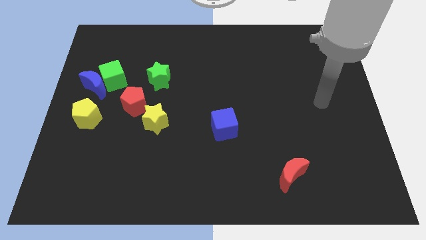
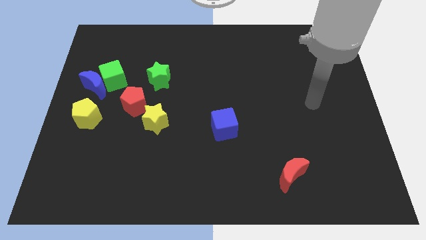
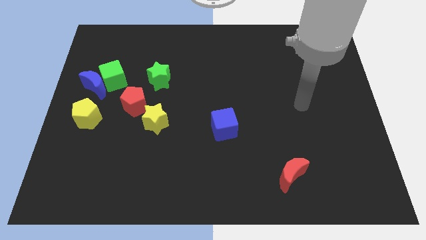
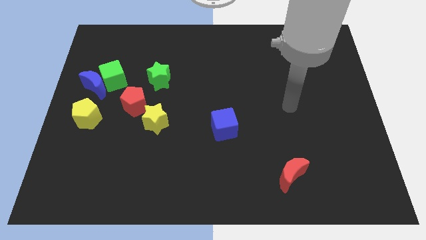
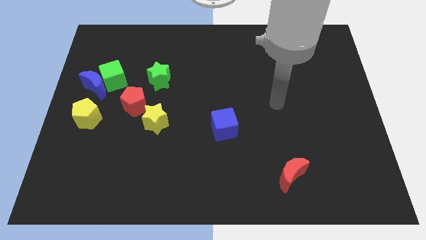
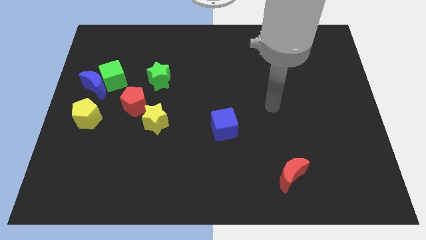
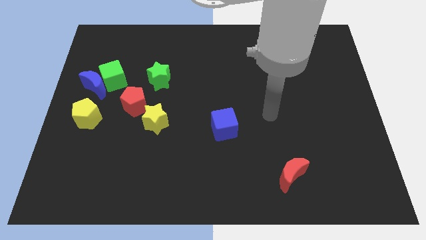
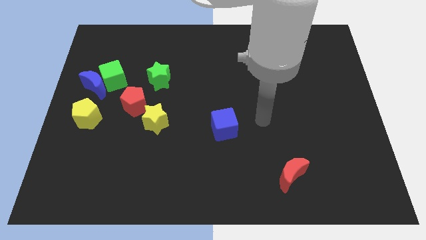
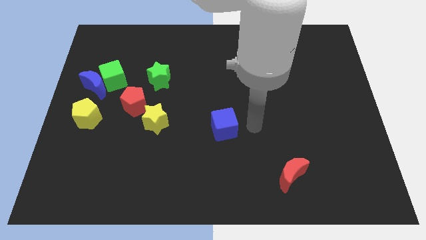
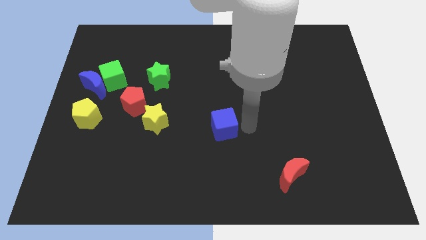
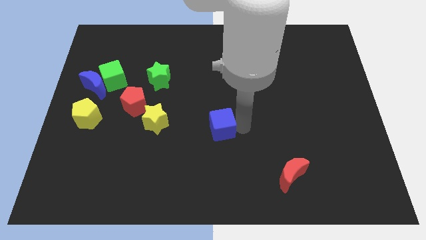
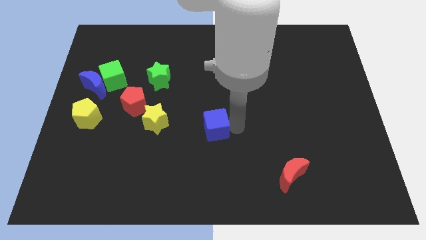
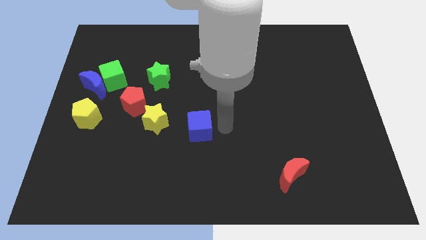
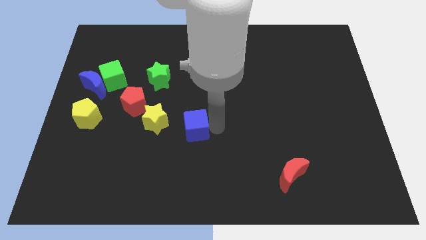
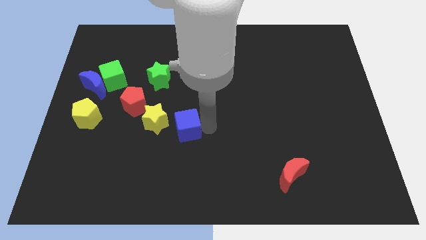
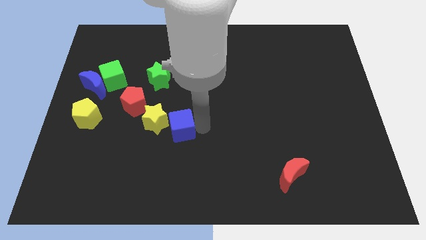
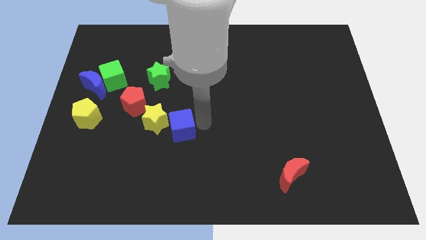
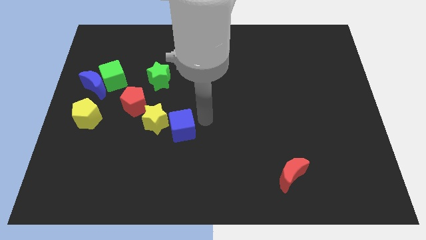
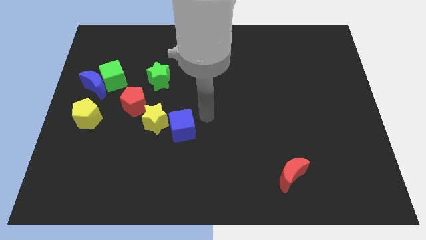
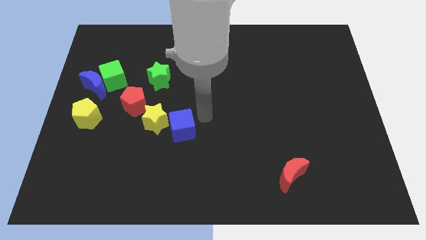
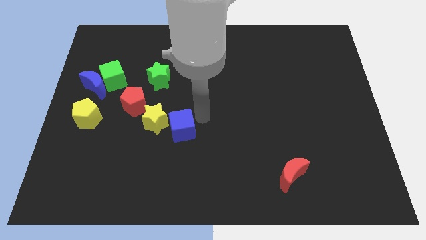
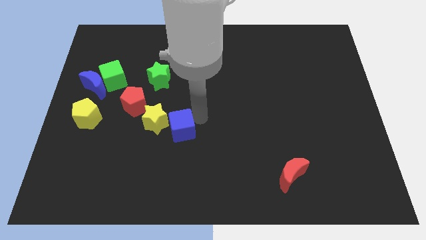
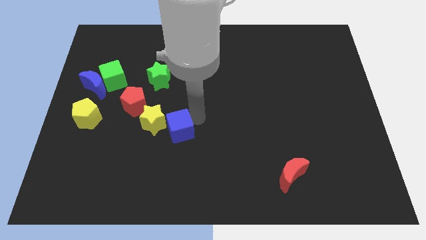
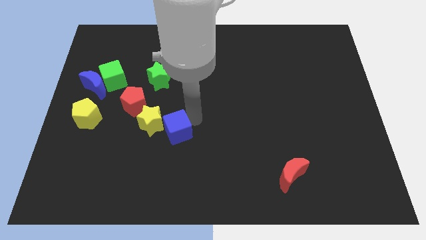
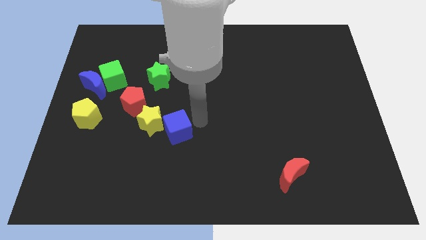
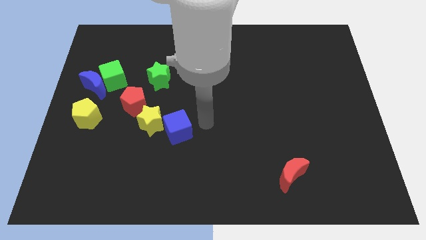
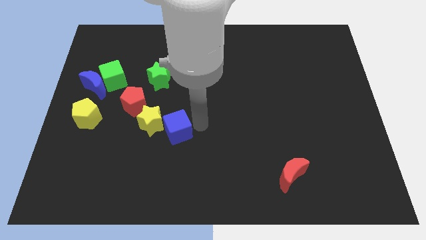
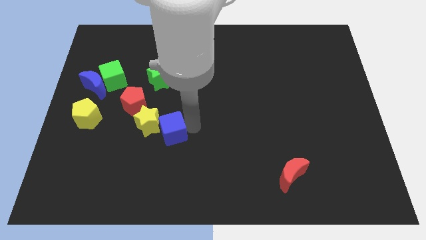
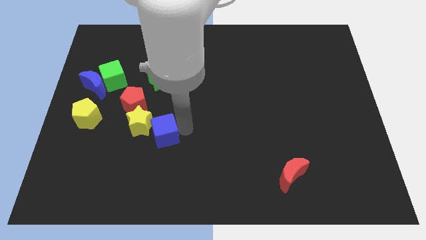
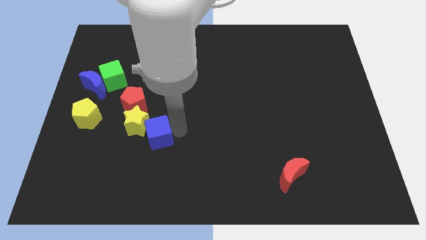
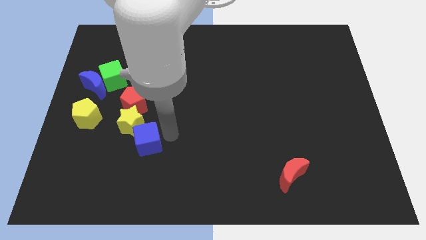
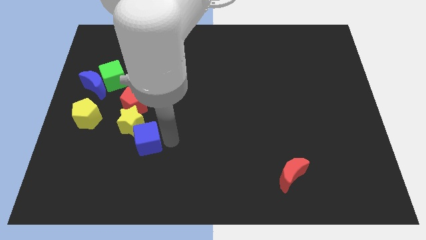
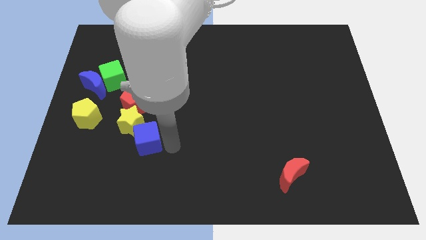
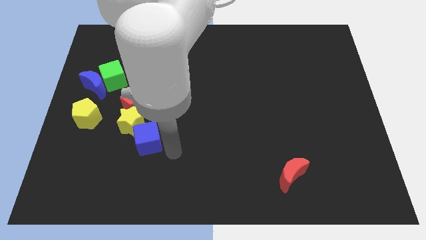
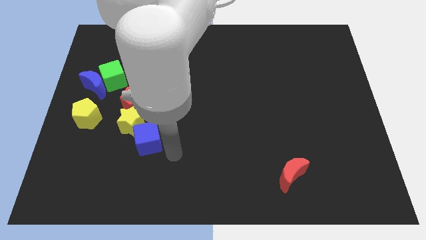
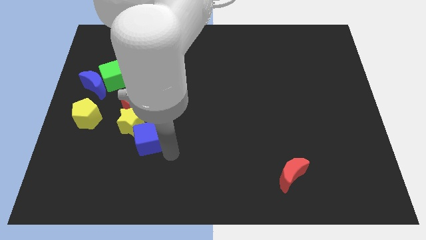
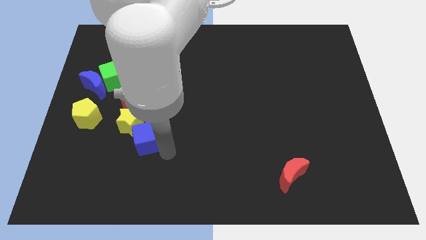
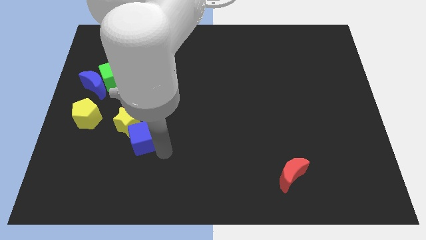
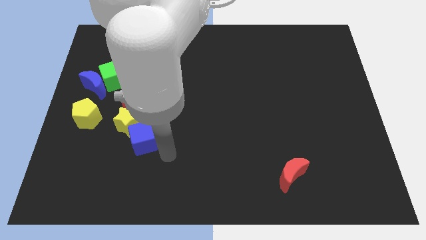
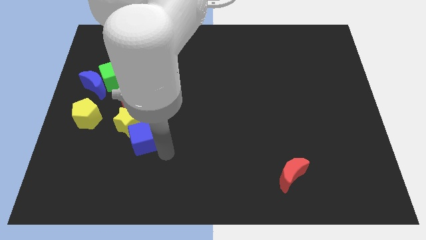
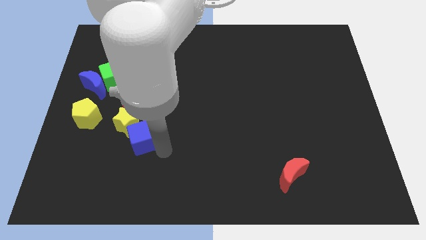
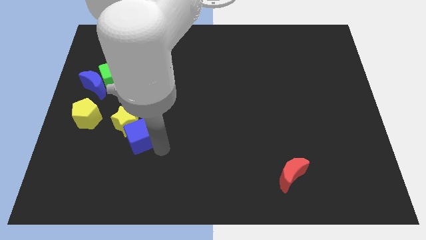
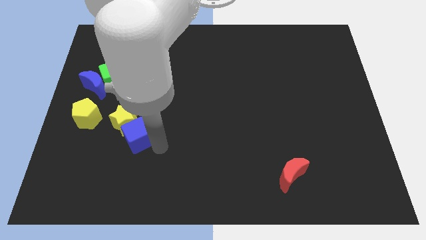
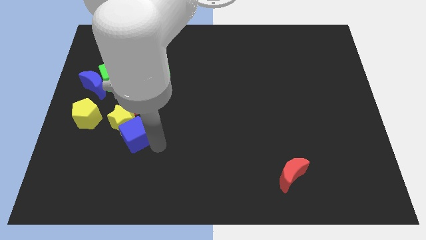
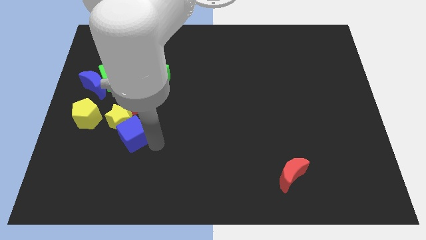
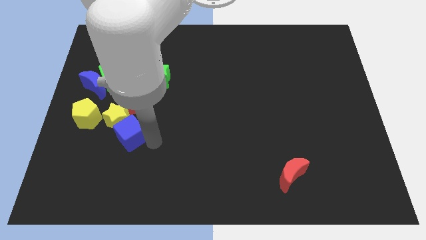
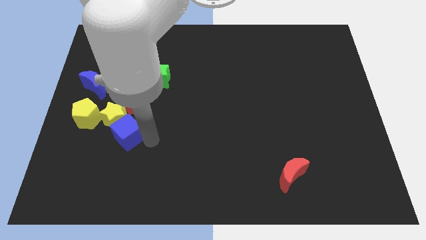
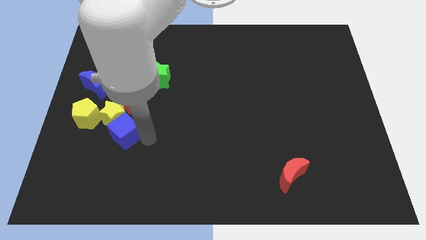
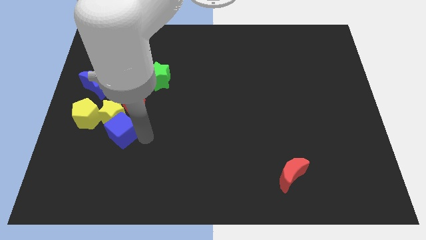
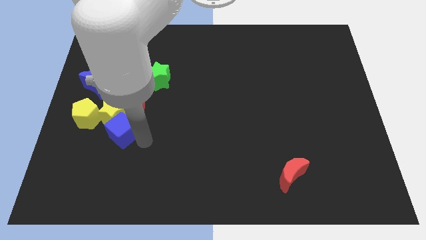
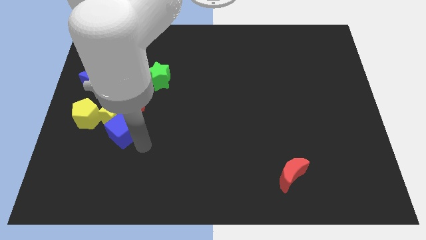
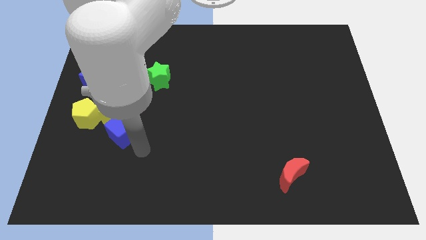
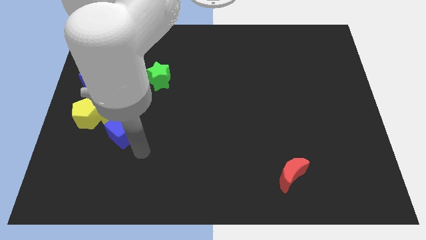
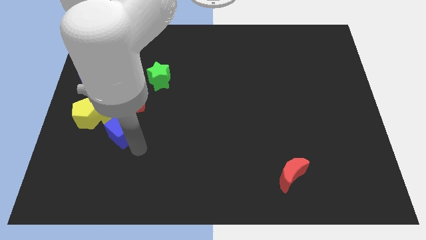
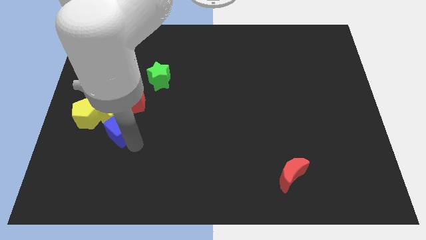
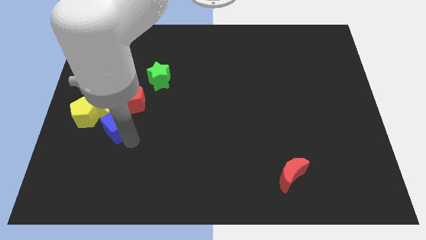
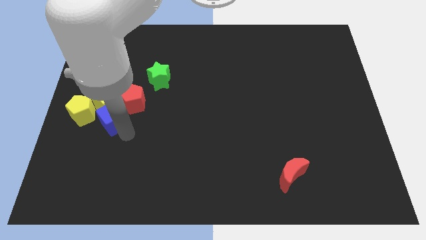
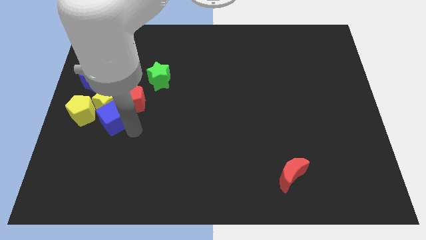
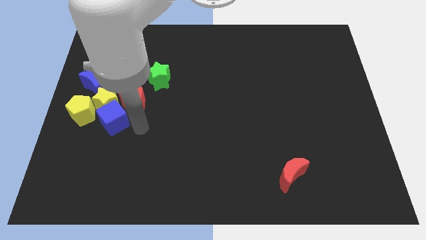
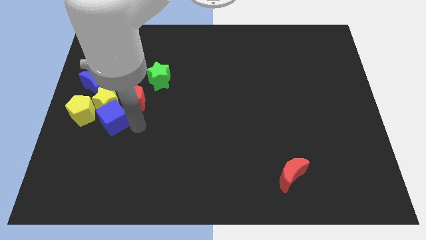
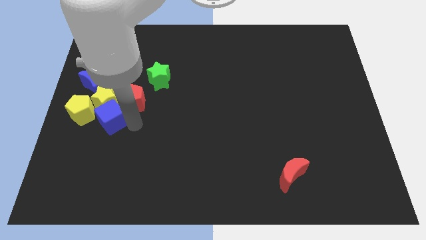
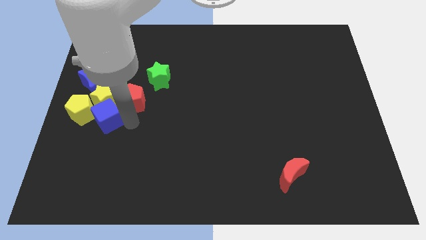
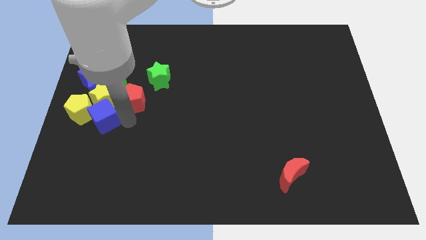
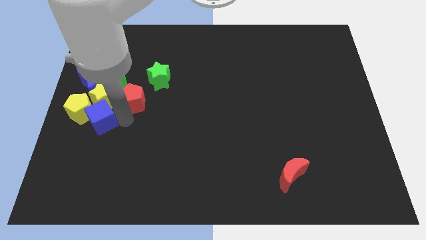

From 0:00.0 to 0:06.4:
push the blue cube close to the yellow pentagon

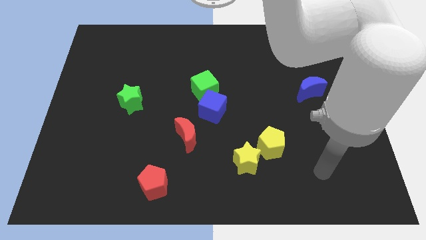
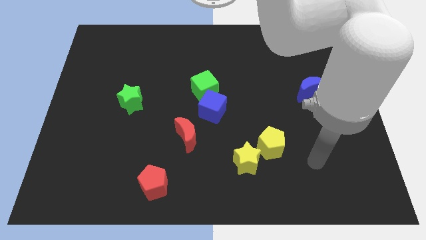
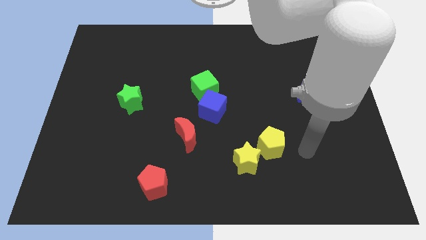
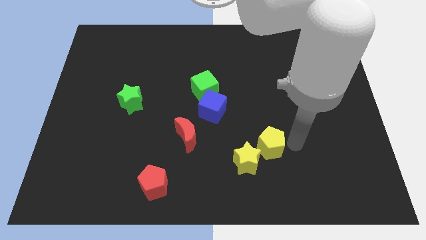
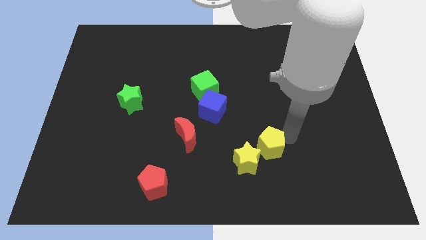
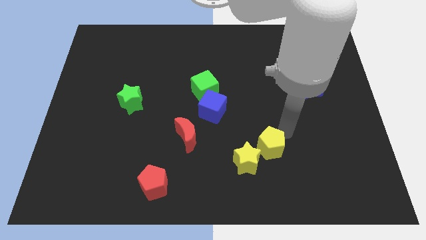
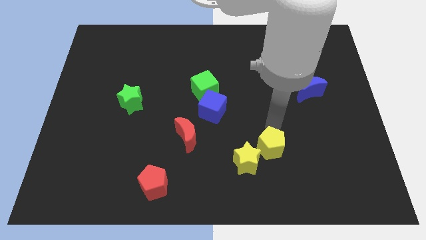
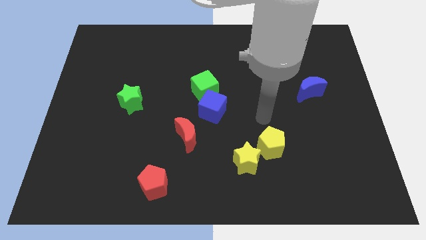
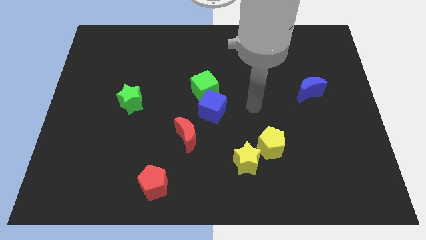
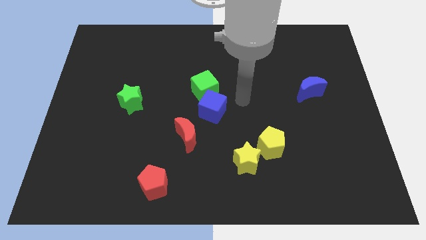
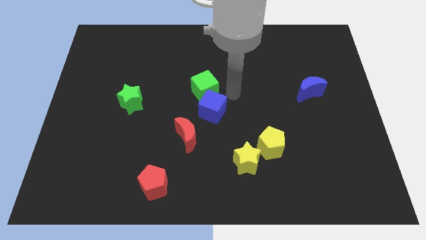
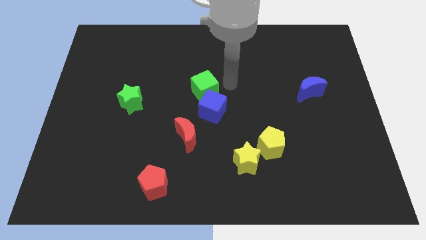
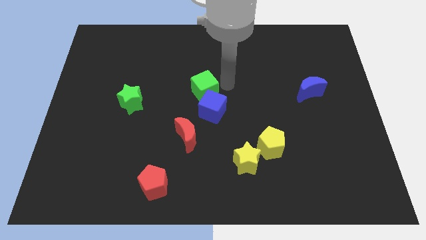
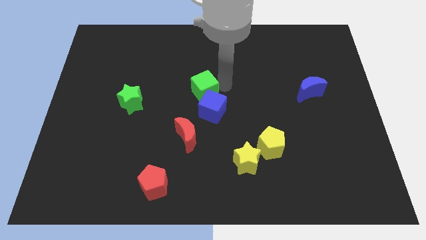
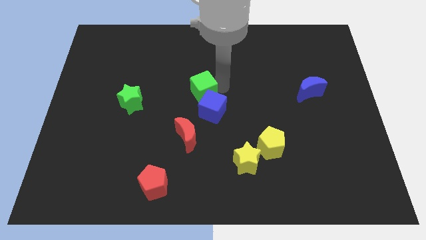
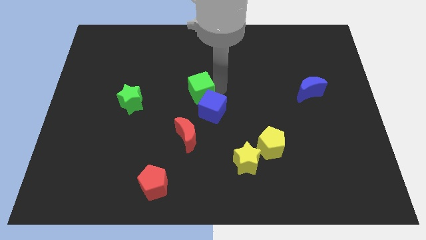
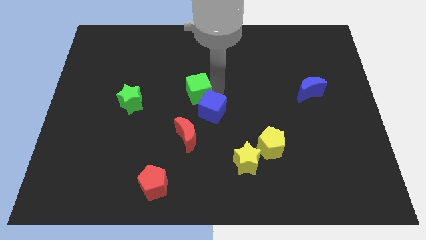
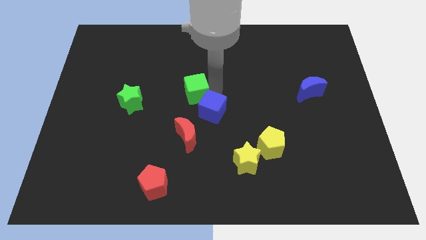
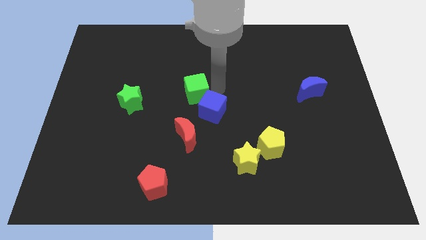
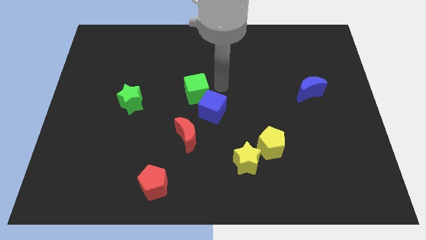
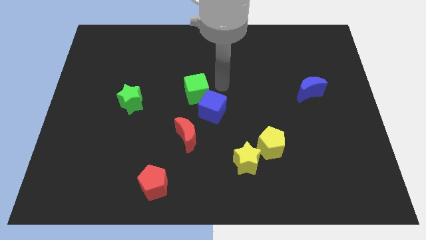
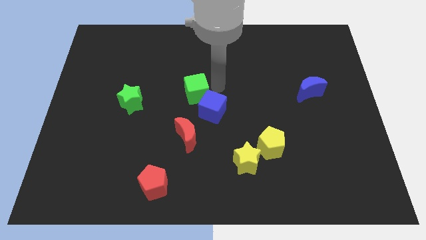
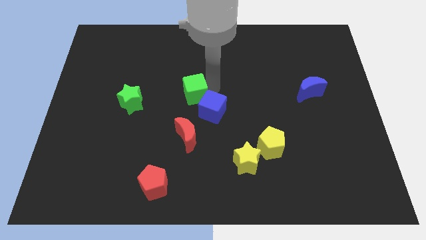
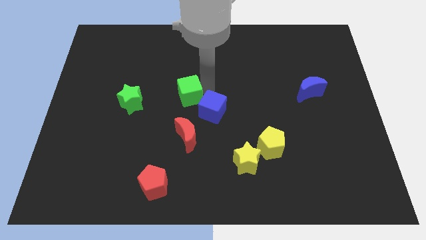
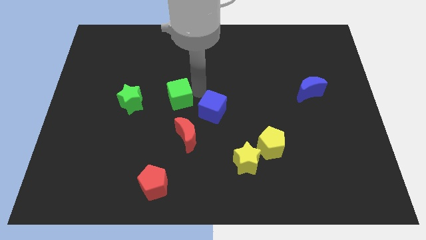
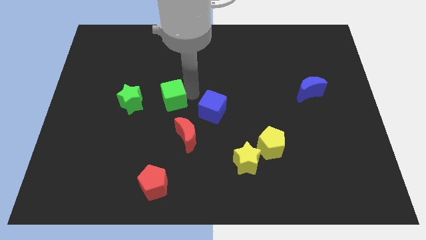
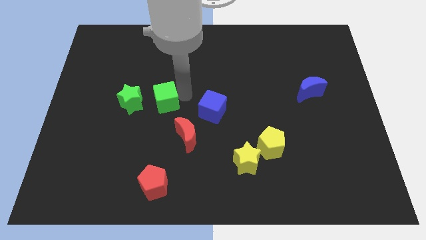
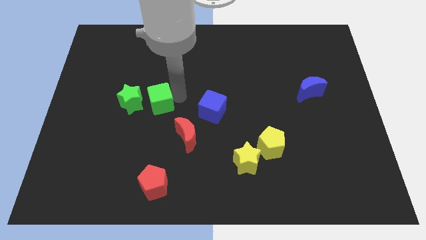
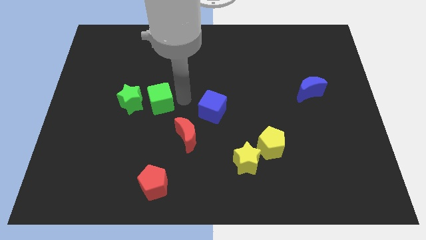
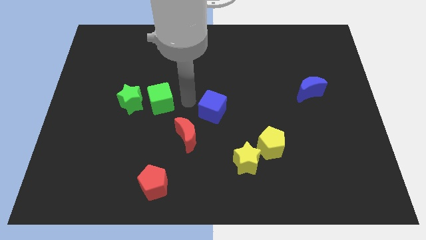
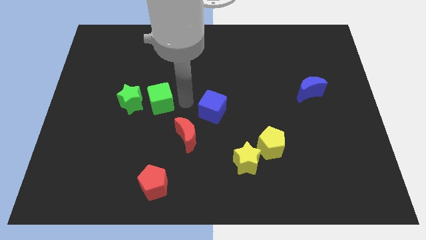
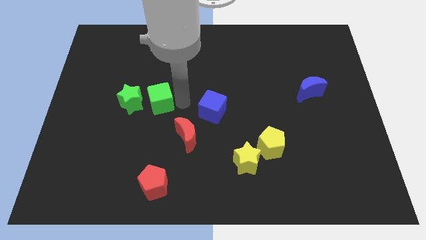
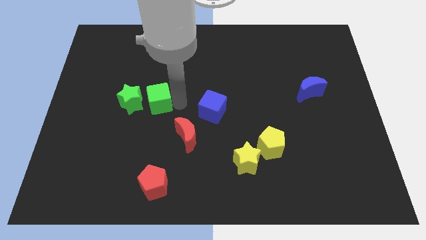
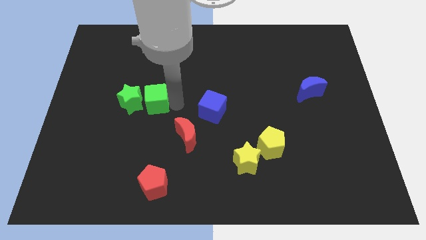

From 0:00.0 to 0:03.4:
push the green cube towards the green star
